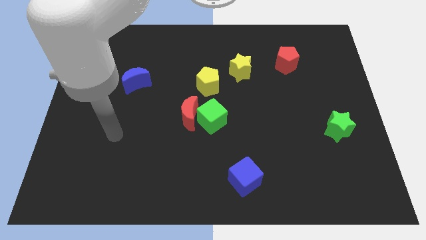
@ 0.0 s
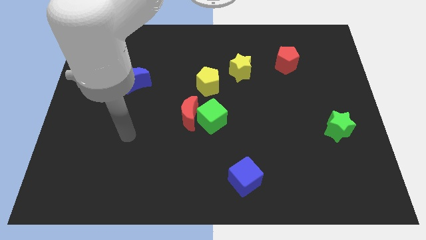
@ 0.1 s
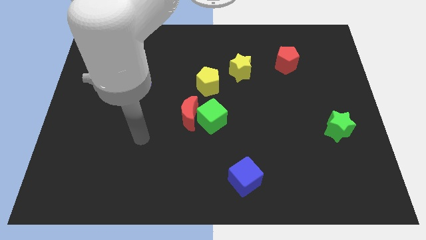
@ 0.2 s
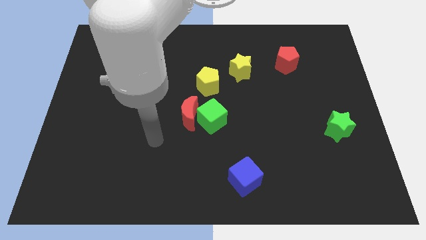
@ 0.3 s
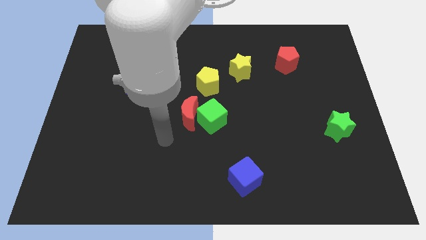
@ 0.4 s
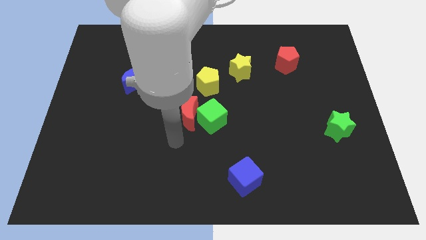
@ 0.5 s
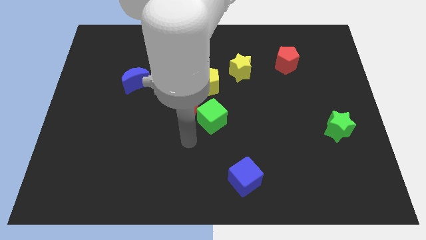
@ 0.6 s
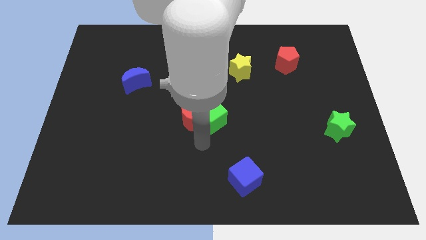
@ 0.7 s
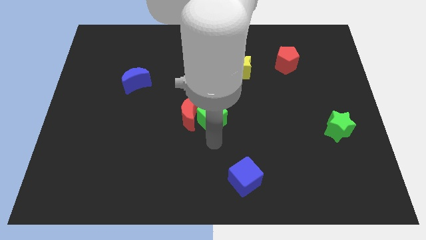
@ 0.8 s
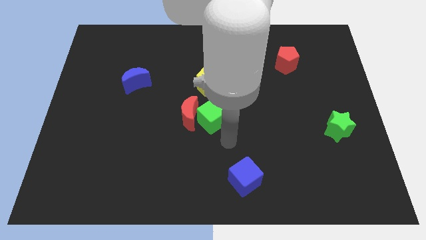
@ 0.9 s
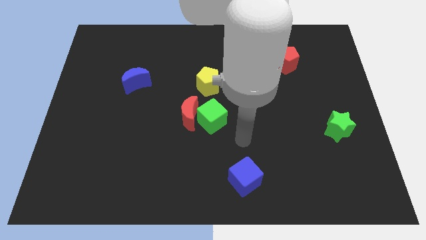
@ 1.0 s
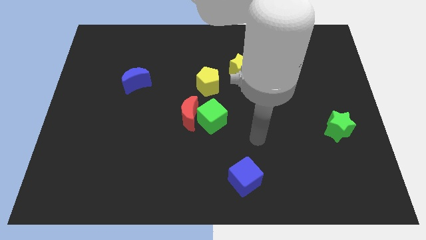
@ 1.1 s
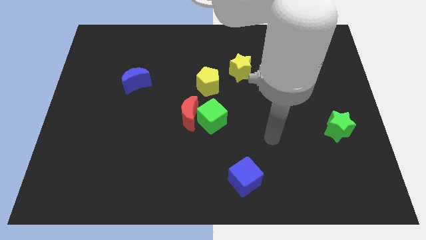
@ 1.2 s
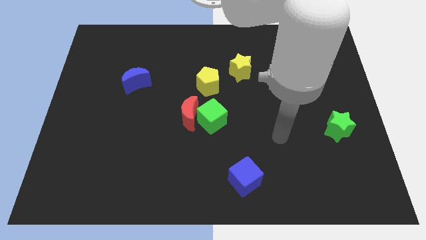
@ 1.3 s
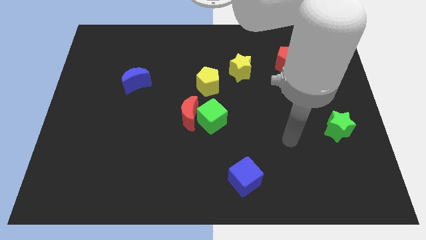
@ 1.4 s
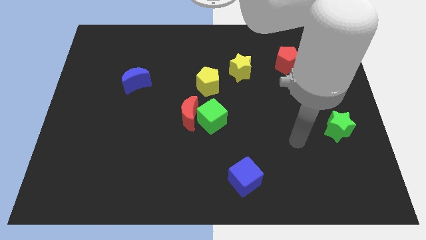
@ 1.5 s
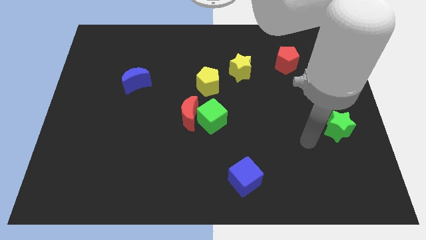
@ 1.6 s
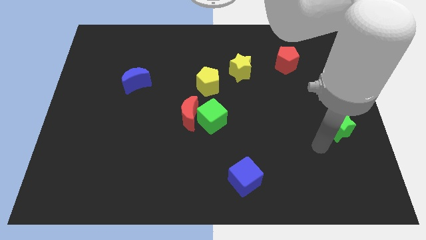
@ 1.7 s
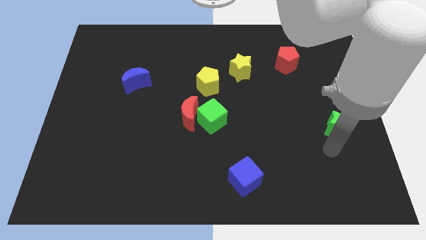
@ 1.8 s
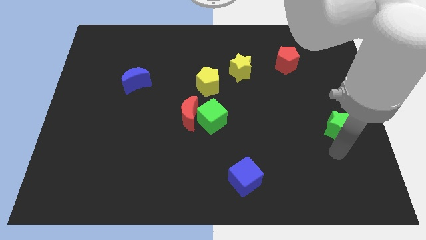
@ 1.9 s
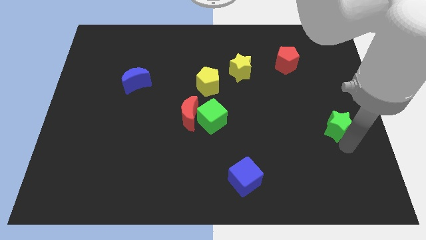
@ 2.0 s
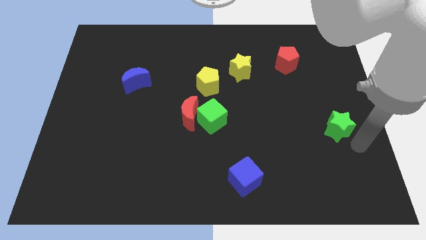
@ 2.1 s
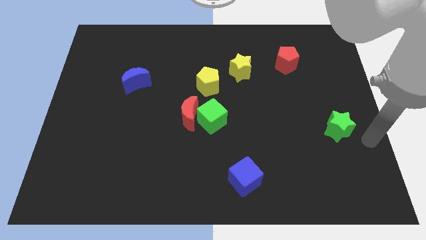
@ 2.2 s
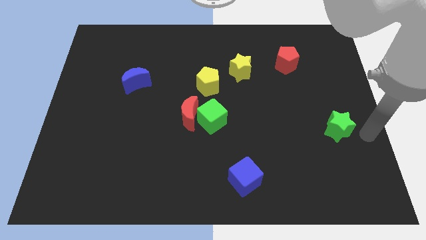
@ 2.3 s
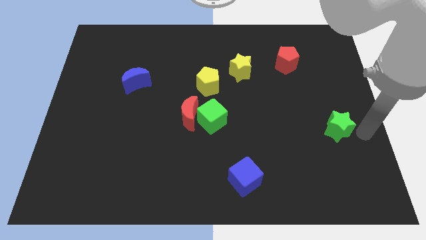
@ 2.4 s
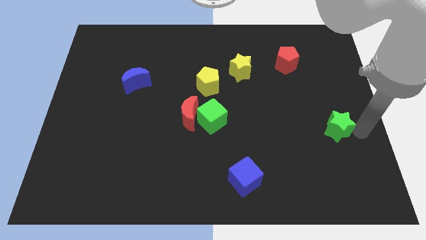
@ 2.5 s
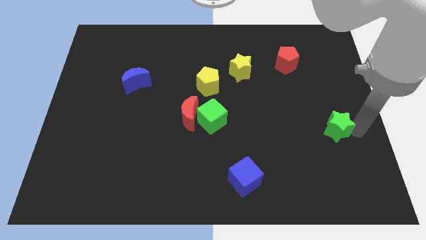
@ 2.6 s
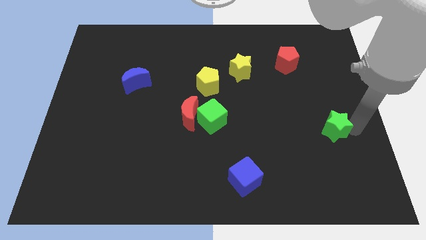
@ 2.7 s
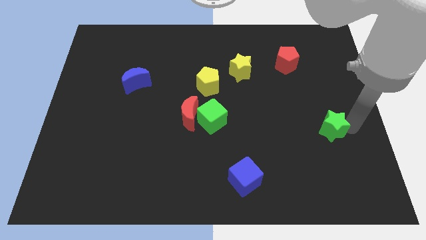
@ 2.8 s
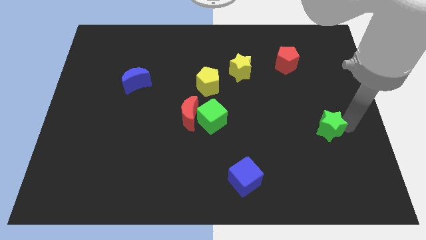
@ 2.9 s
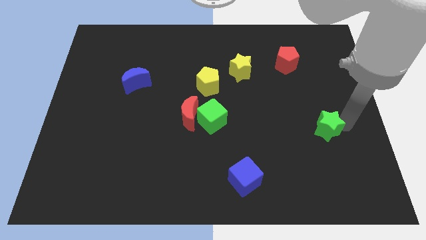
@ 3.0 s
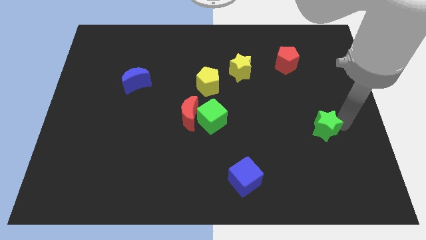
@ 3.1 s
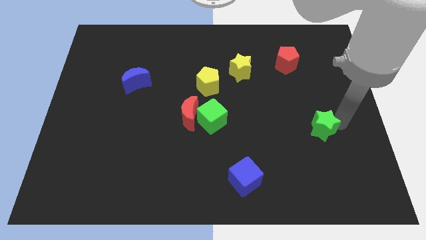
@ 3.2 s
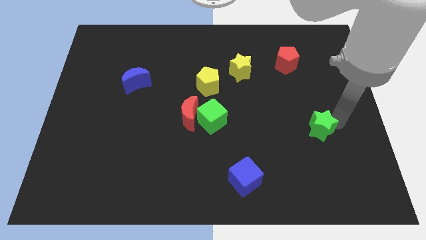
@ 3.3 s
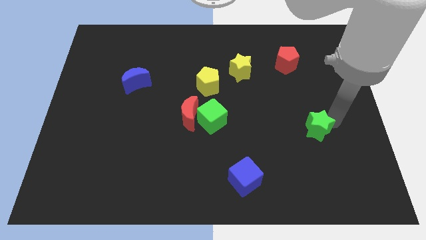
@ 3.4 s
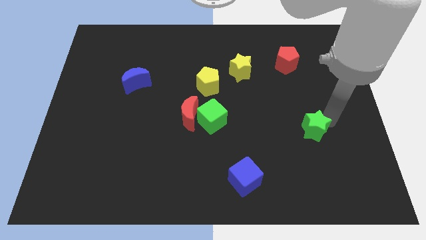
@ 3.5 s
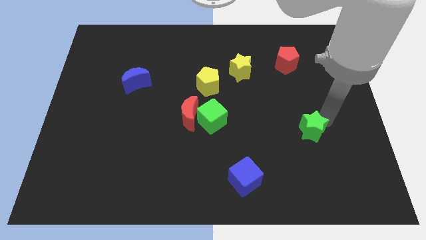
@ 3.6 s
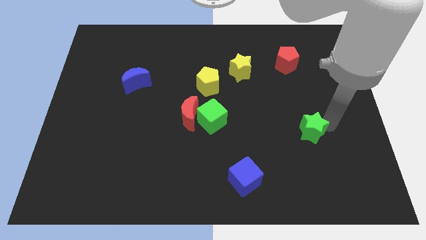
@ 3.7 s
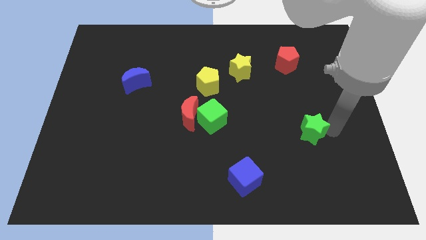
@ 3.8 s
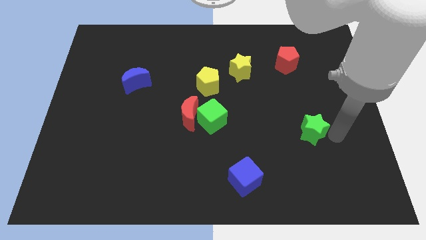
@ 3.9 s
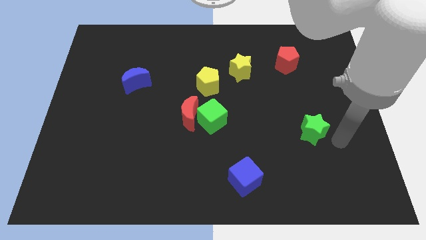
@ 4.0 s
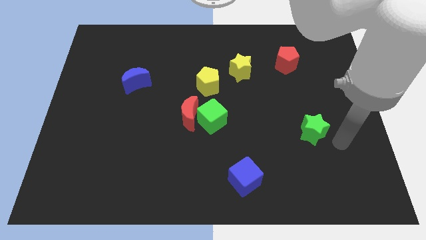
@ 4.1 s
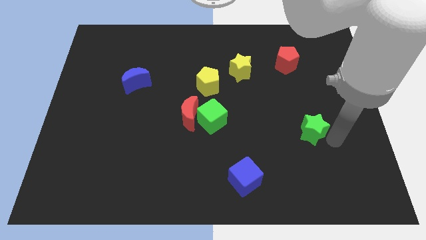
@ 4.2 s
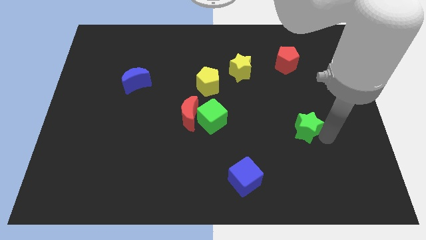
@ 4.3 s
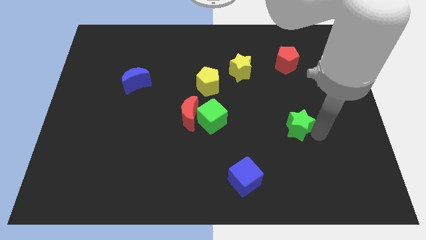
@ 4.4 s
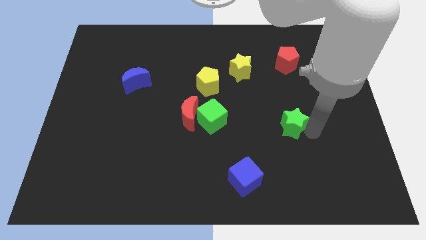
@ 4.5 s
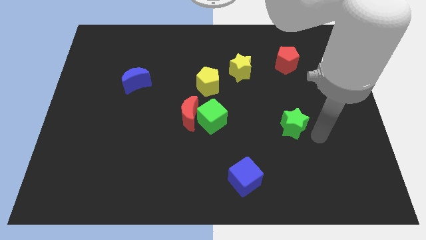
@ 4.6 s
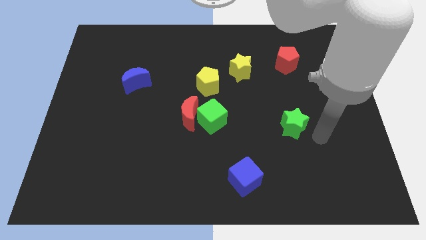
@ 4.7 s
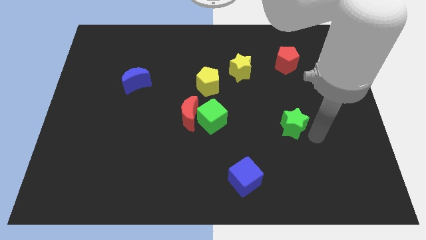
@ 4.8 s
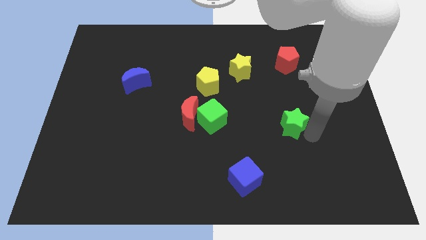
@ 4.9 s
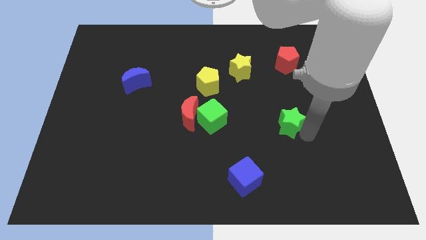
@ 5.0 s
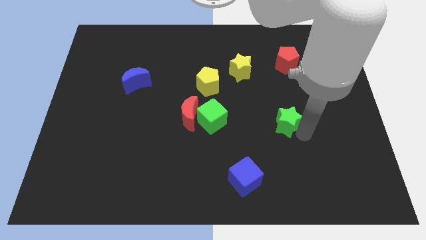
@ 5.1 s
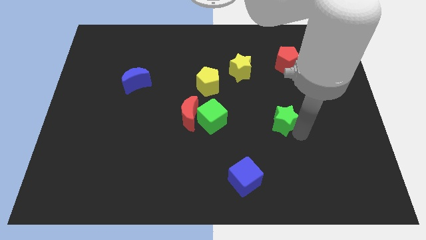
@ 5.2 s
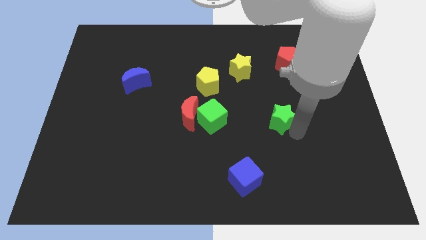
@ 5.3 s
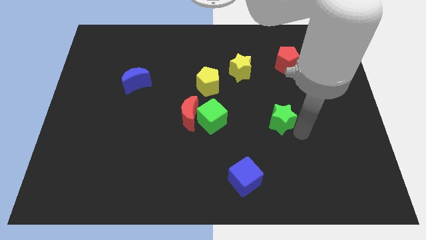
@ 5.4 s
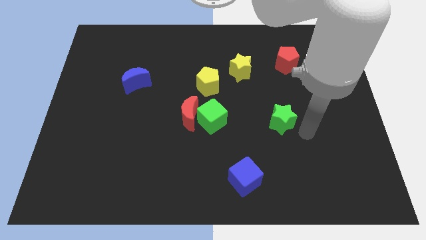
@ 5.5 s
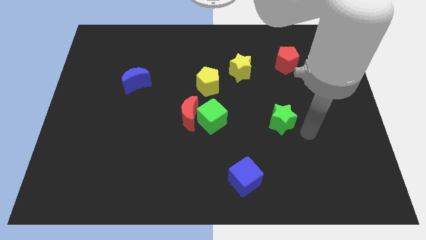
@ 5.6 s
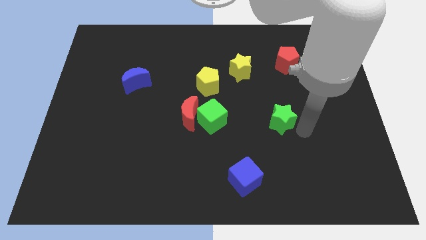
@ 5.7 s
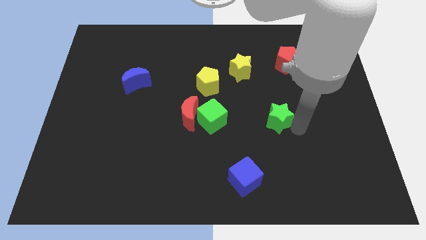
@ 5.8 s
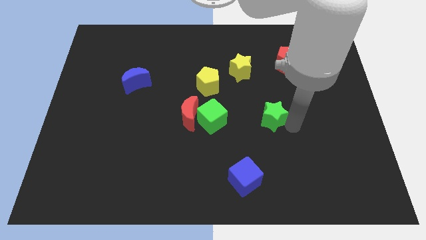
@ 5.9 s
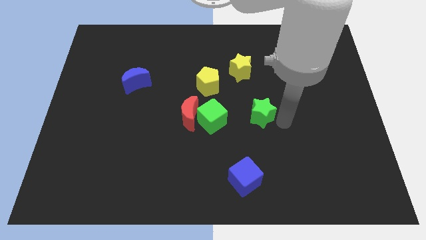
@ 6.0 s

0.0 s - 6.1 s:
slide the green star to the middle of the board

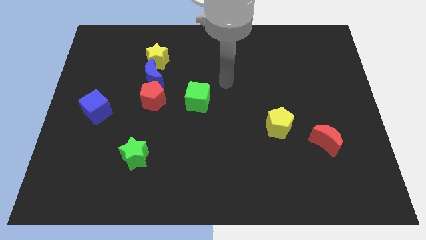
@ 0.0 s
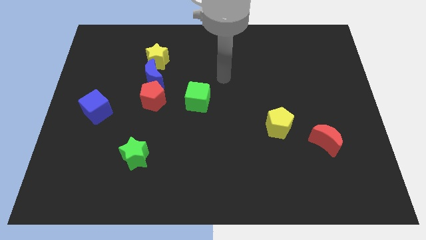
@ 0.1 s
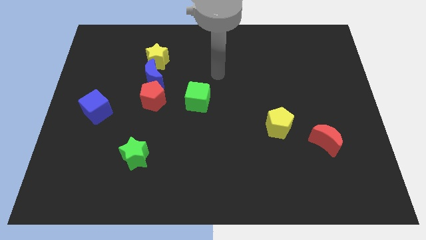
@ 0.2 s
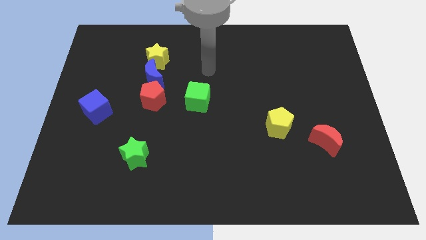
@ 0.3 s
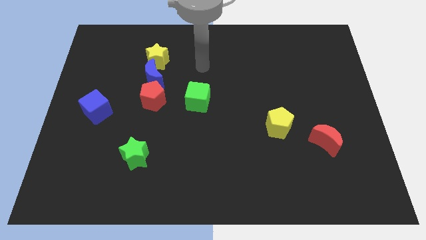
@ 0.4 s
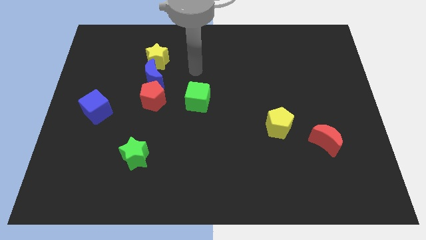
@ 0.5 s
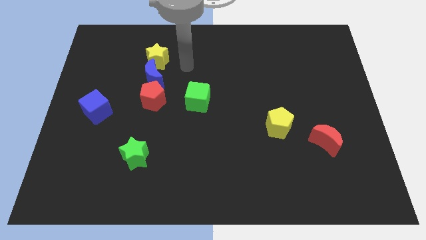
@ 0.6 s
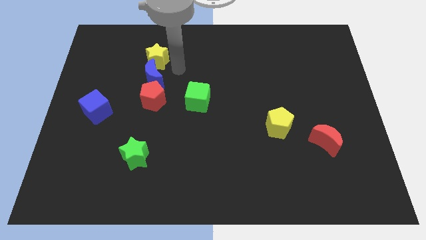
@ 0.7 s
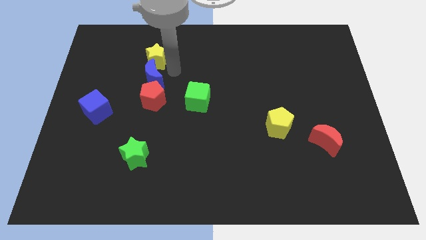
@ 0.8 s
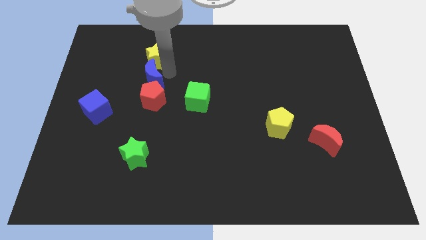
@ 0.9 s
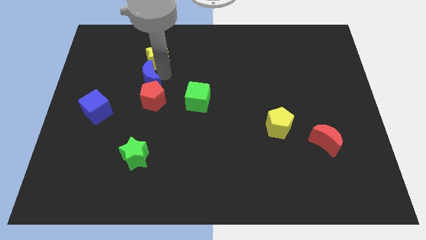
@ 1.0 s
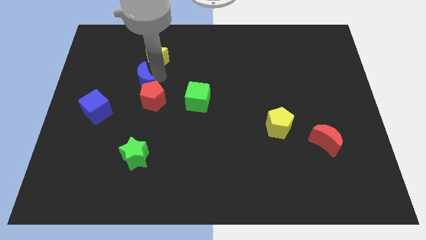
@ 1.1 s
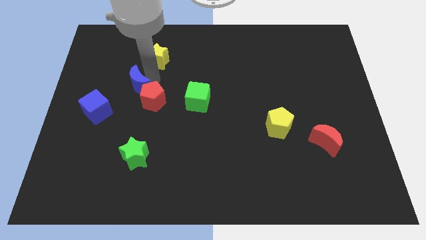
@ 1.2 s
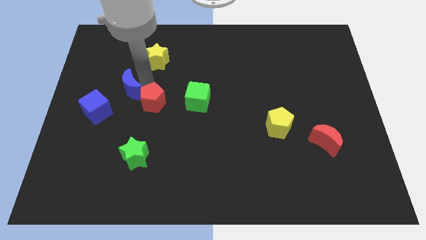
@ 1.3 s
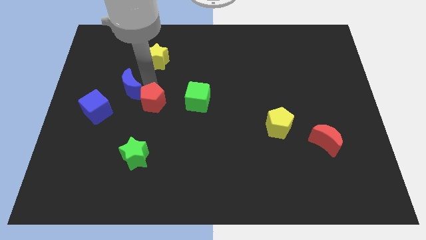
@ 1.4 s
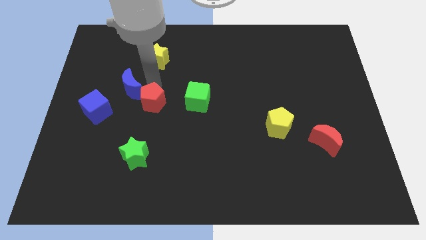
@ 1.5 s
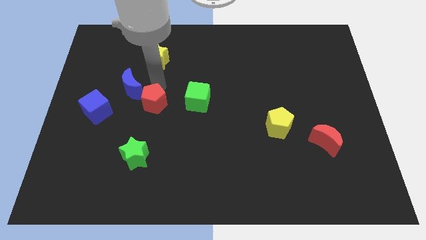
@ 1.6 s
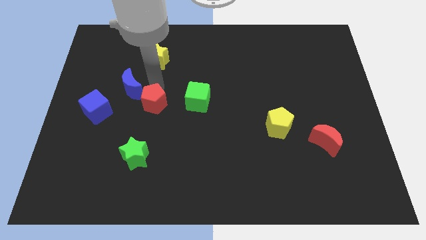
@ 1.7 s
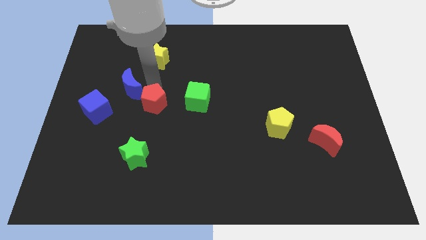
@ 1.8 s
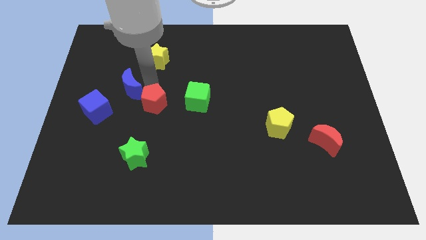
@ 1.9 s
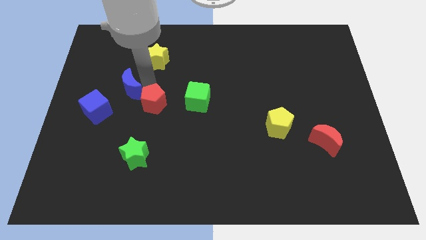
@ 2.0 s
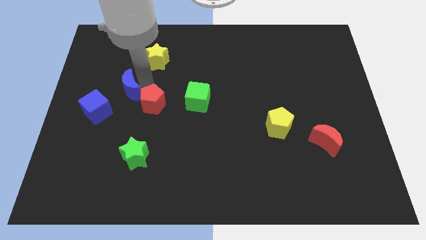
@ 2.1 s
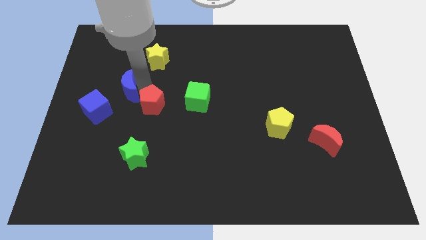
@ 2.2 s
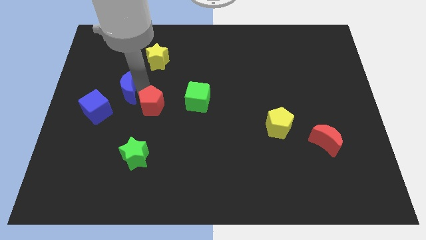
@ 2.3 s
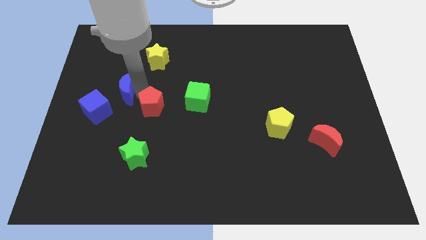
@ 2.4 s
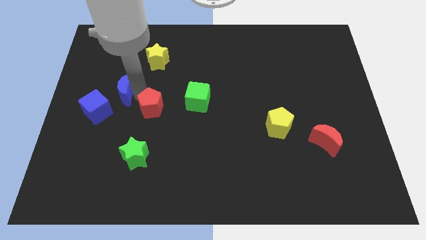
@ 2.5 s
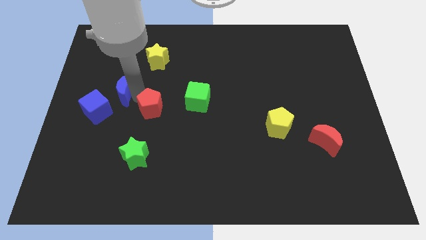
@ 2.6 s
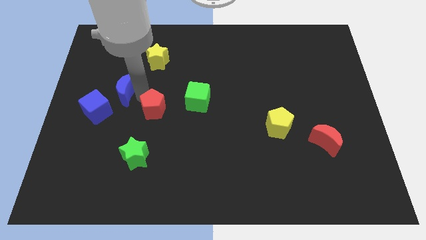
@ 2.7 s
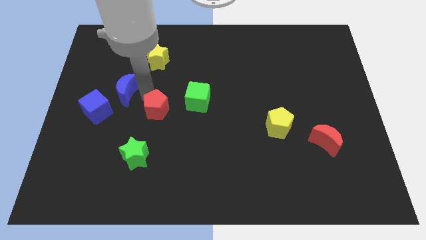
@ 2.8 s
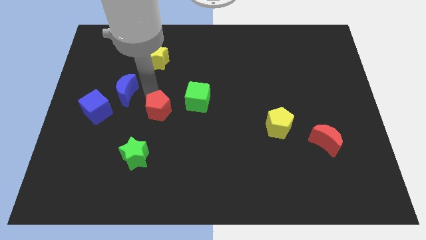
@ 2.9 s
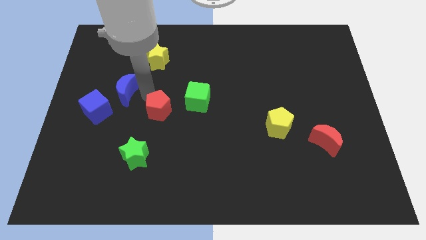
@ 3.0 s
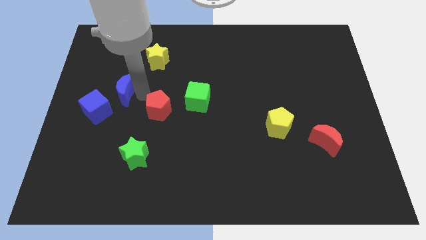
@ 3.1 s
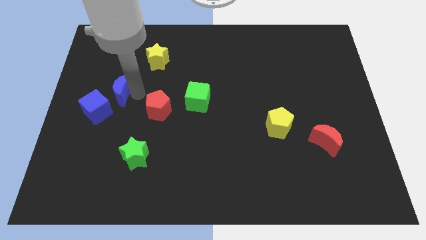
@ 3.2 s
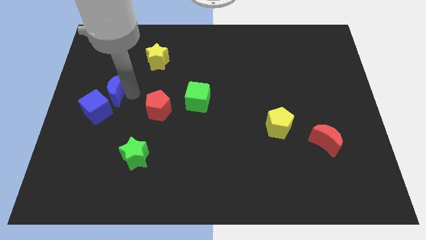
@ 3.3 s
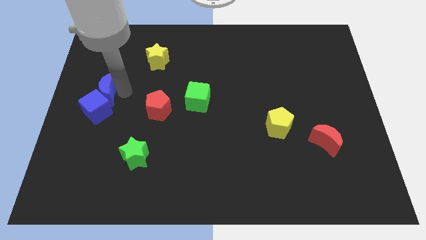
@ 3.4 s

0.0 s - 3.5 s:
push the blue moon to the left side
